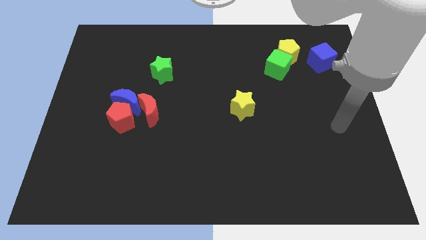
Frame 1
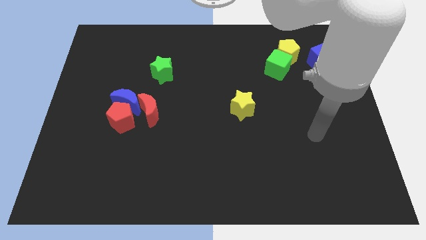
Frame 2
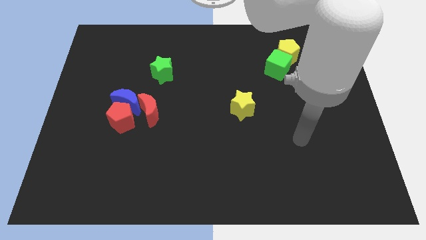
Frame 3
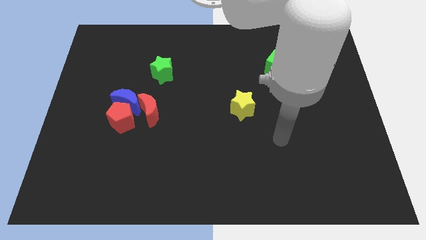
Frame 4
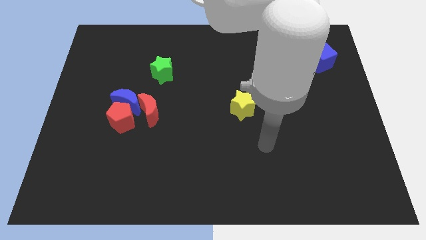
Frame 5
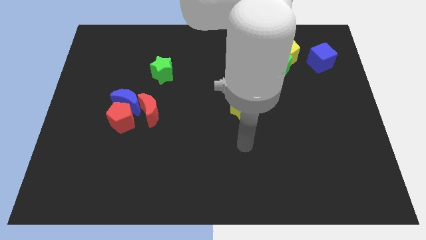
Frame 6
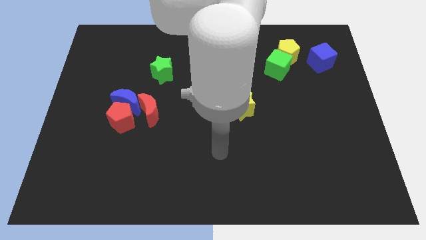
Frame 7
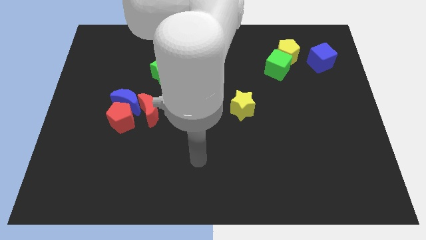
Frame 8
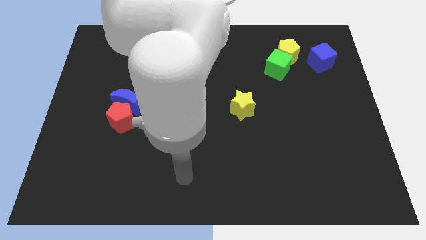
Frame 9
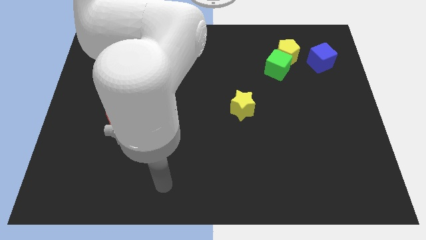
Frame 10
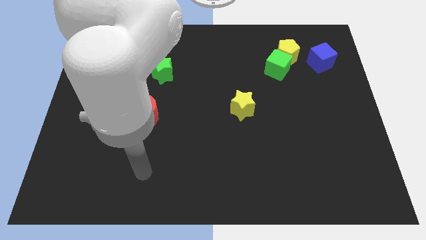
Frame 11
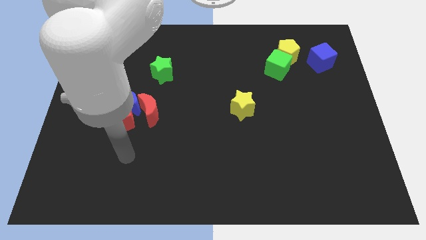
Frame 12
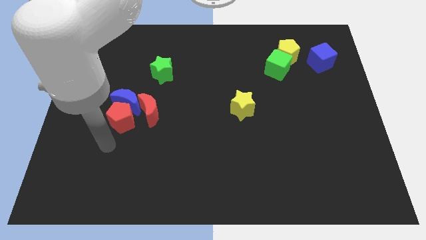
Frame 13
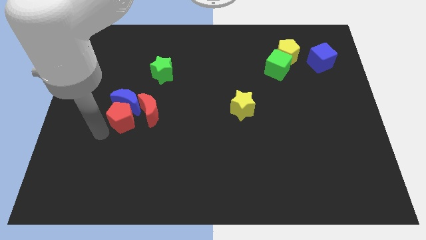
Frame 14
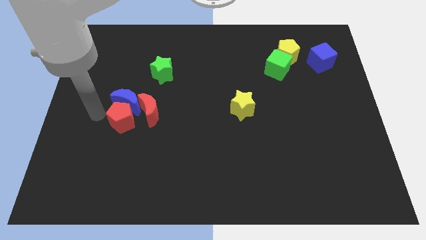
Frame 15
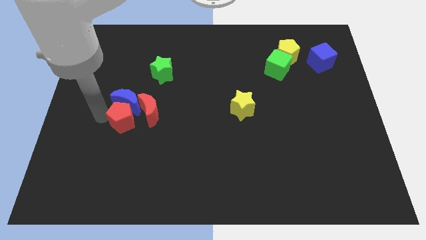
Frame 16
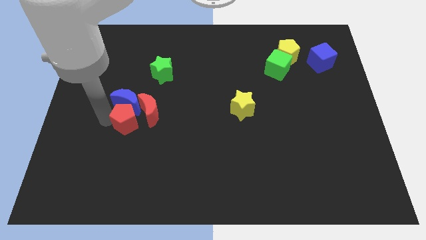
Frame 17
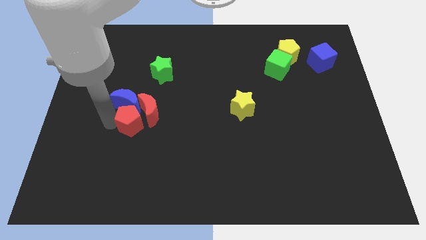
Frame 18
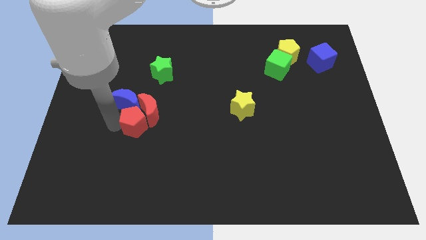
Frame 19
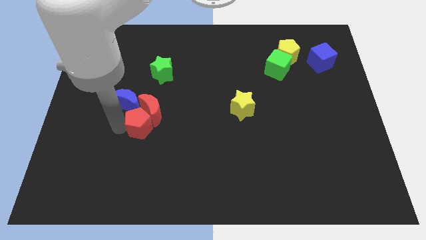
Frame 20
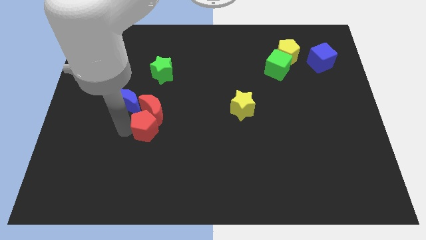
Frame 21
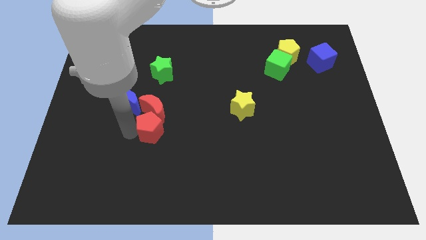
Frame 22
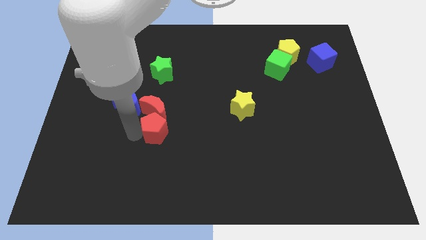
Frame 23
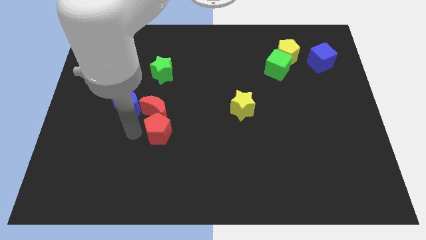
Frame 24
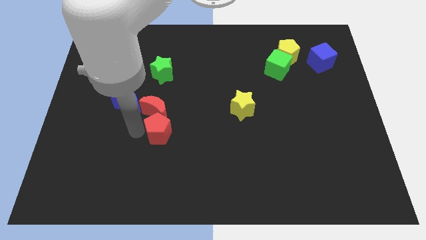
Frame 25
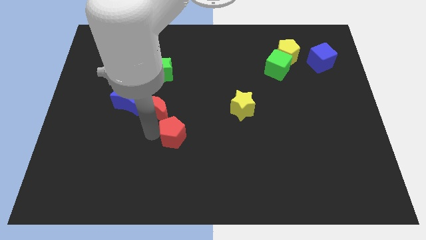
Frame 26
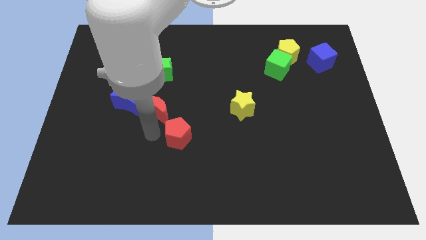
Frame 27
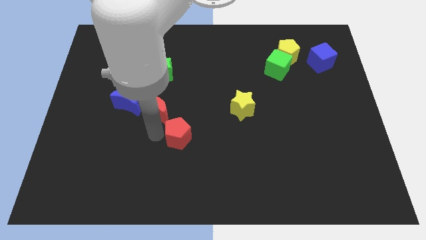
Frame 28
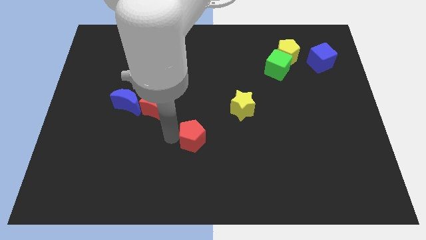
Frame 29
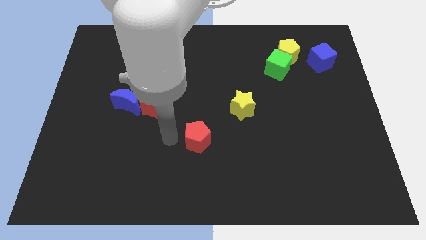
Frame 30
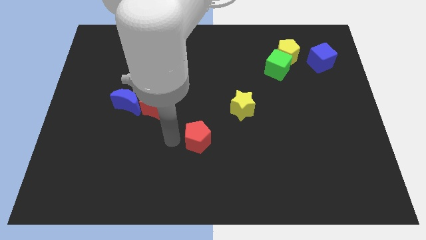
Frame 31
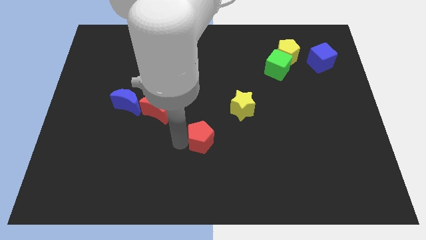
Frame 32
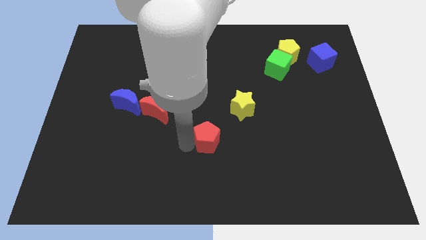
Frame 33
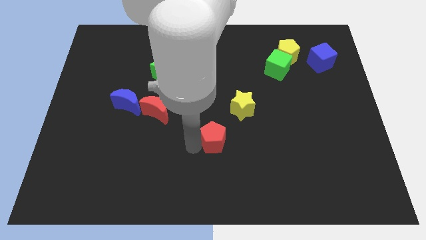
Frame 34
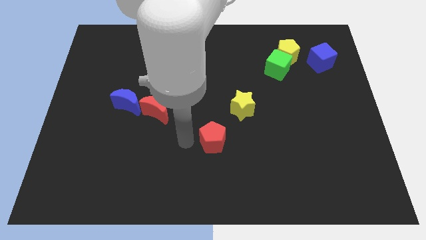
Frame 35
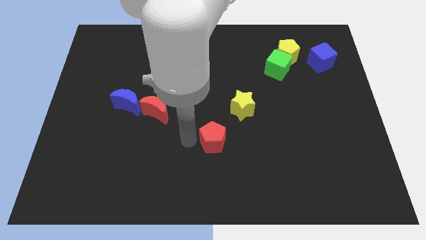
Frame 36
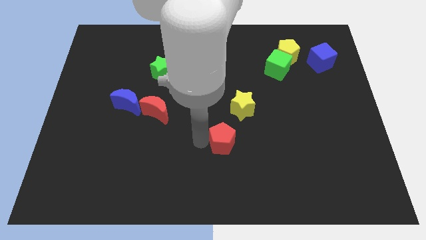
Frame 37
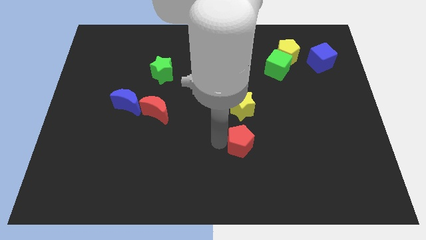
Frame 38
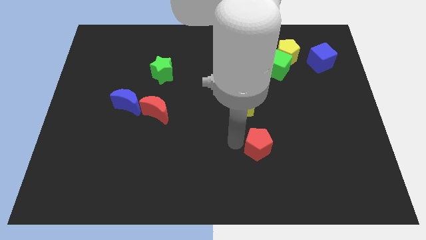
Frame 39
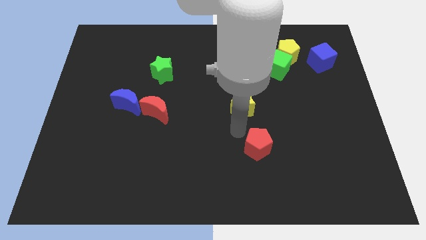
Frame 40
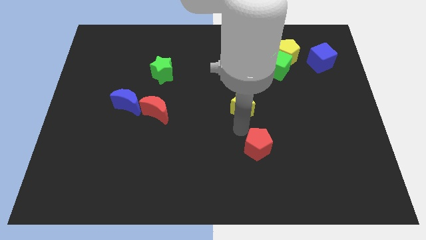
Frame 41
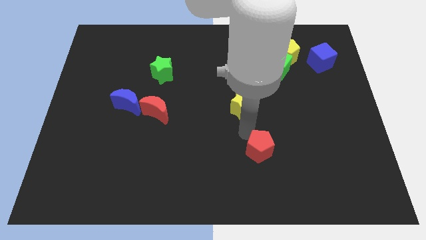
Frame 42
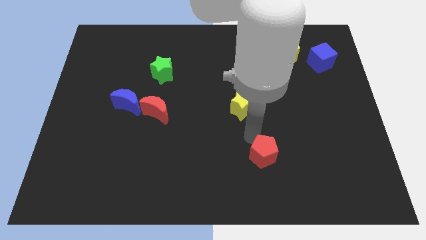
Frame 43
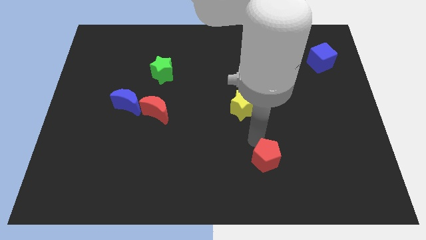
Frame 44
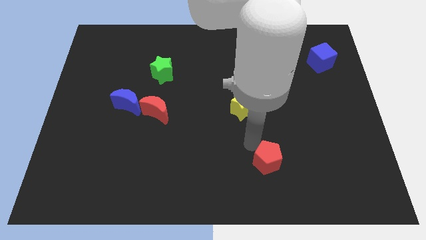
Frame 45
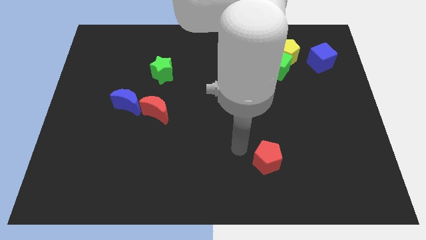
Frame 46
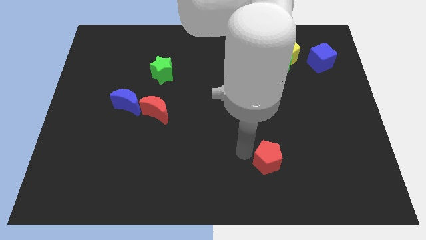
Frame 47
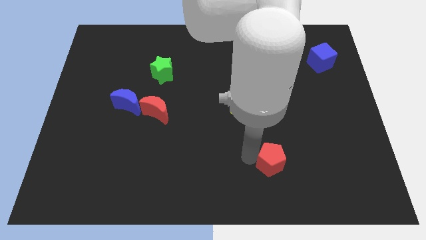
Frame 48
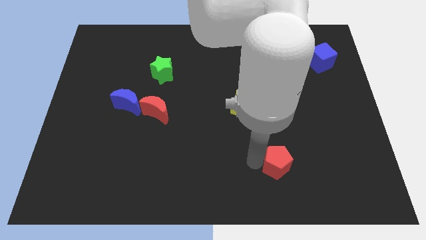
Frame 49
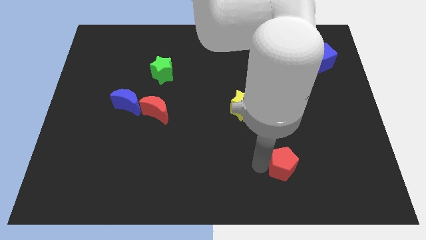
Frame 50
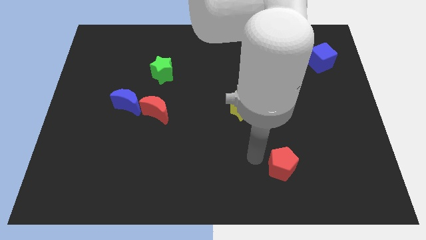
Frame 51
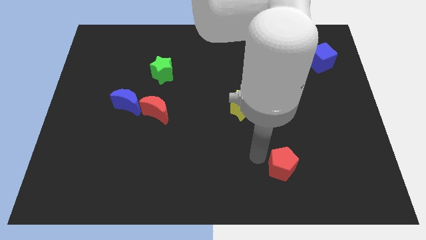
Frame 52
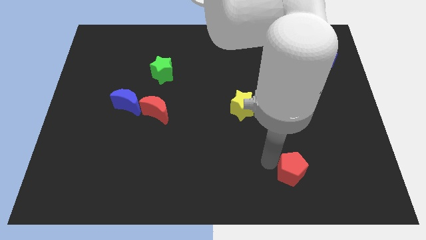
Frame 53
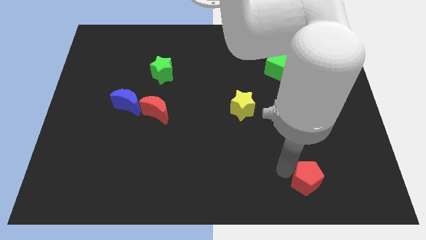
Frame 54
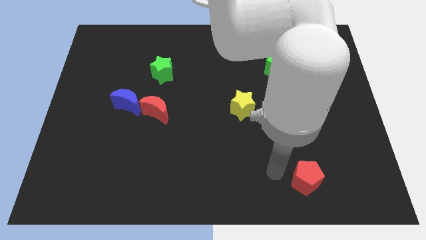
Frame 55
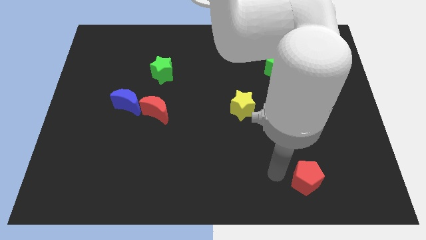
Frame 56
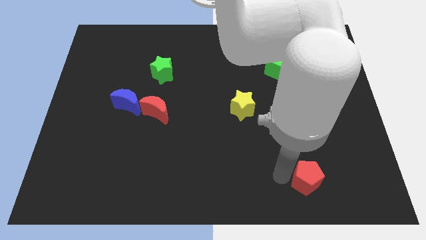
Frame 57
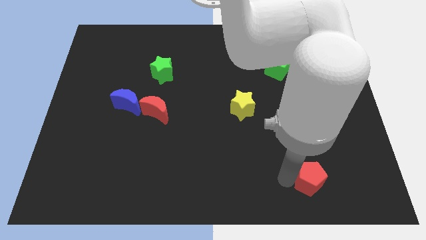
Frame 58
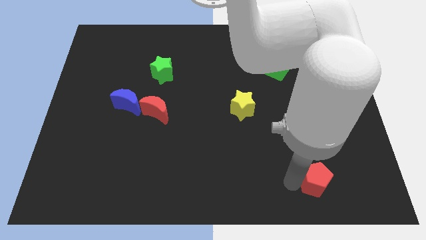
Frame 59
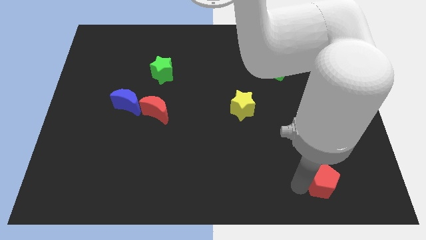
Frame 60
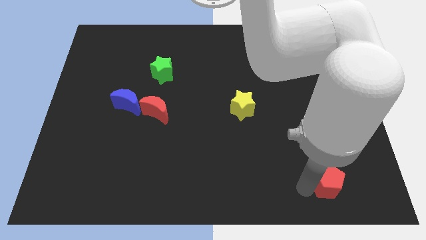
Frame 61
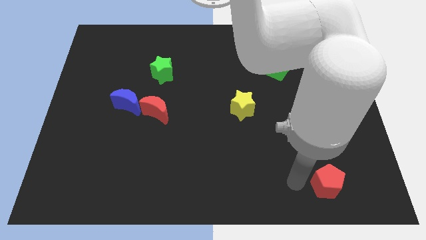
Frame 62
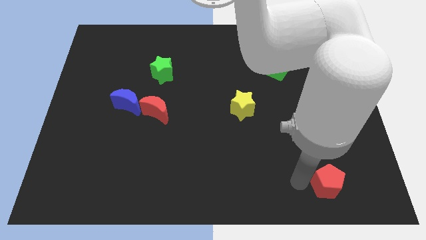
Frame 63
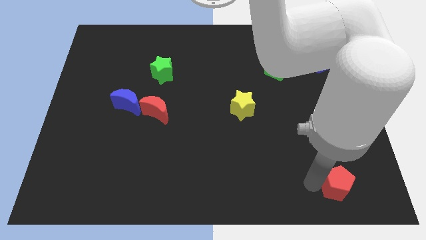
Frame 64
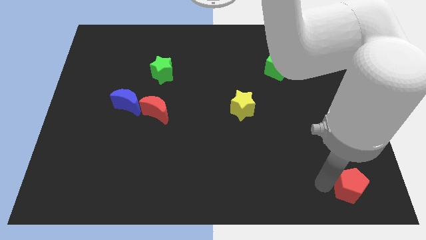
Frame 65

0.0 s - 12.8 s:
move the red pentagon to the bottom right
